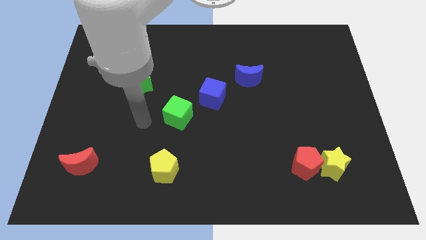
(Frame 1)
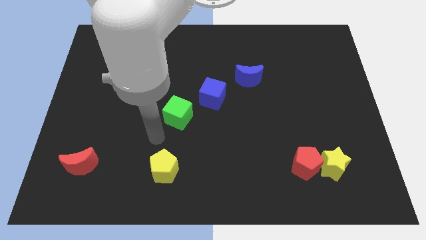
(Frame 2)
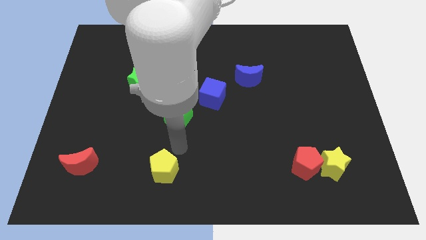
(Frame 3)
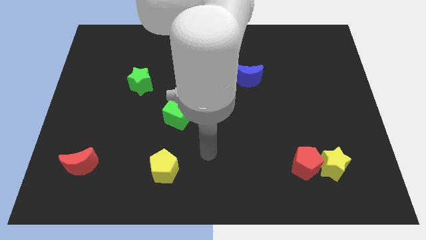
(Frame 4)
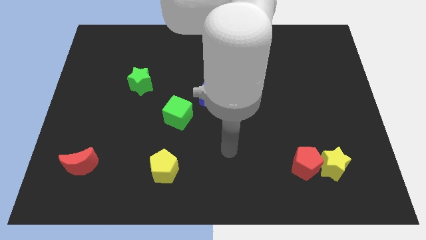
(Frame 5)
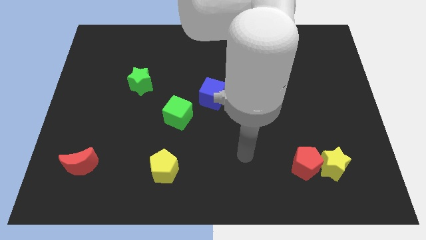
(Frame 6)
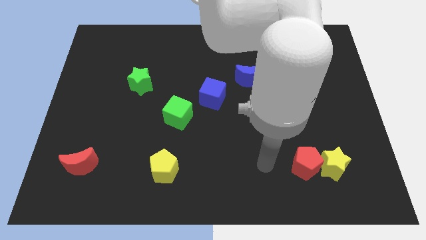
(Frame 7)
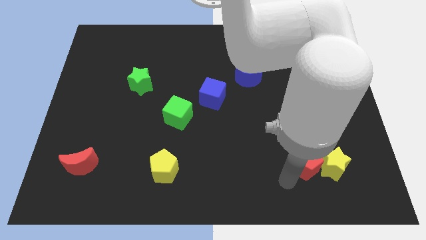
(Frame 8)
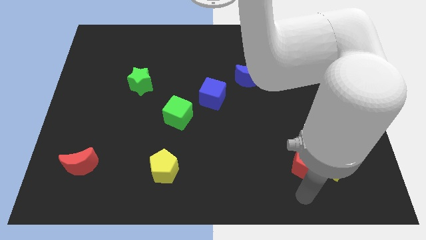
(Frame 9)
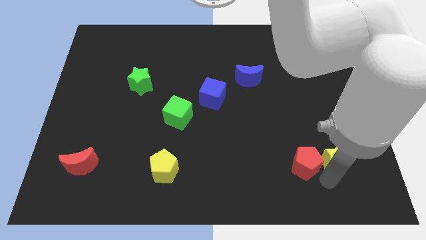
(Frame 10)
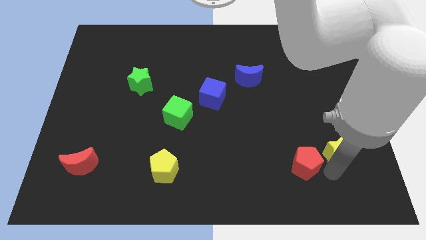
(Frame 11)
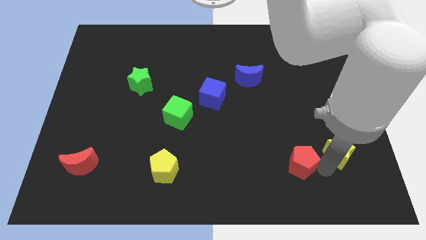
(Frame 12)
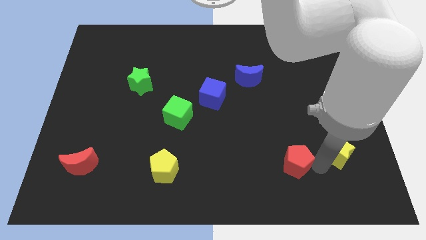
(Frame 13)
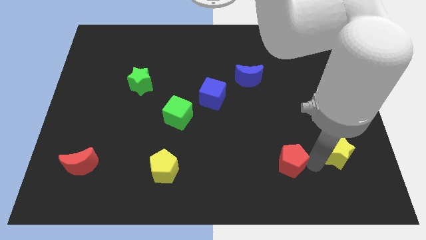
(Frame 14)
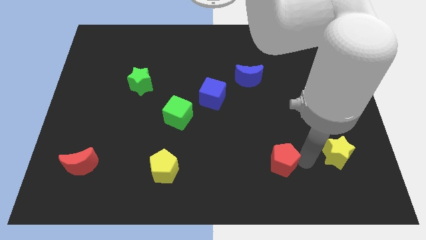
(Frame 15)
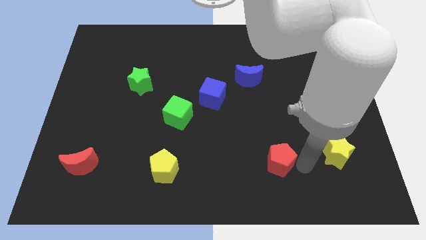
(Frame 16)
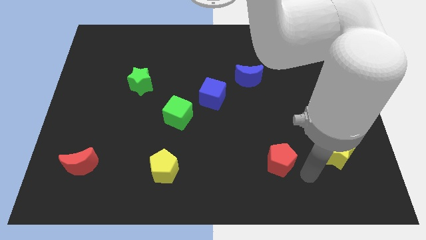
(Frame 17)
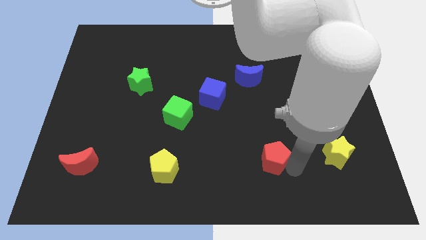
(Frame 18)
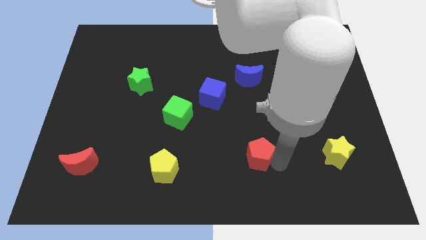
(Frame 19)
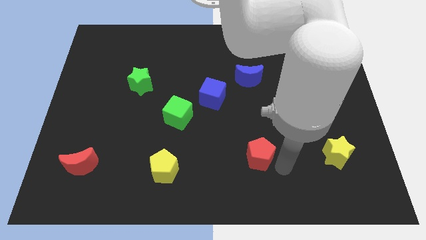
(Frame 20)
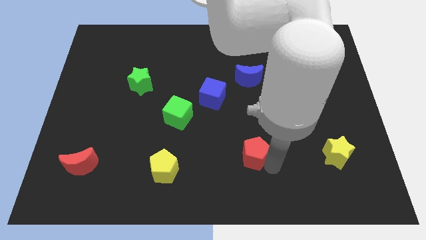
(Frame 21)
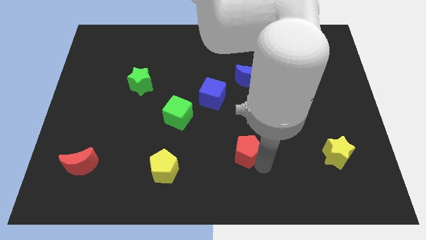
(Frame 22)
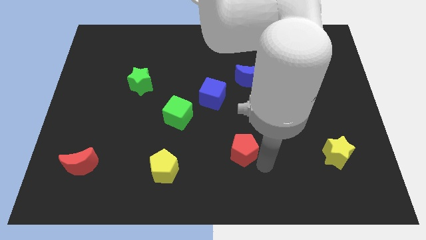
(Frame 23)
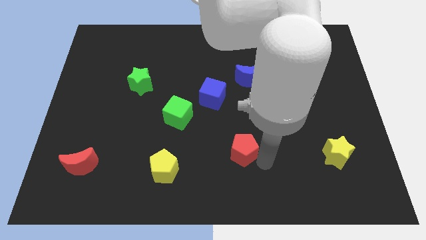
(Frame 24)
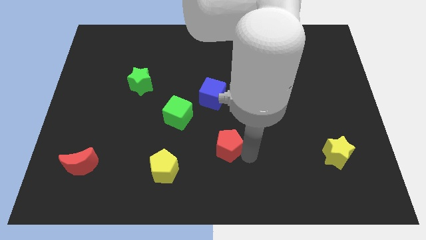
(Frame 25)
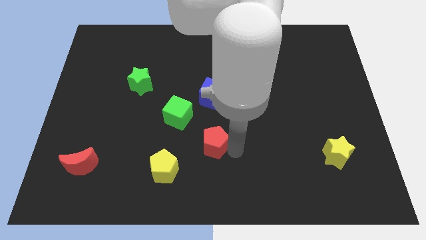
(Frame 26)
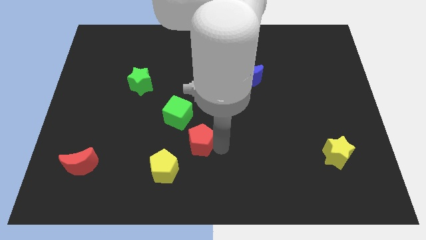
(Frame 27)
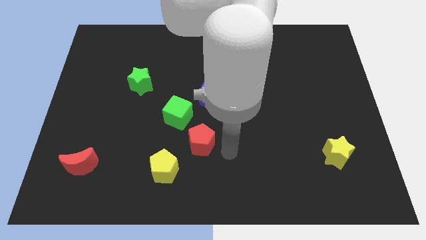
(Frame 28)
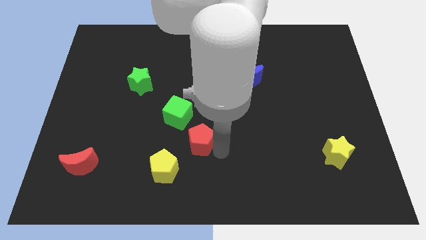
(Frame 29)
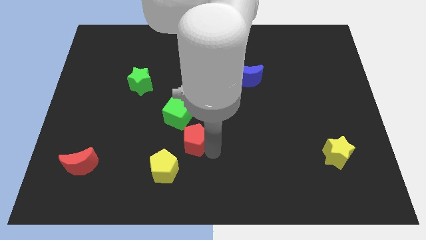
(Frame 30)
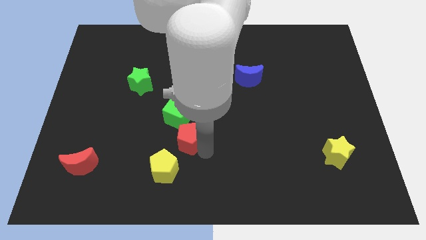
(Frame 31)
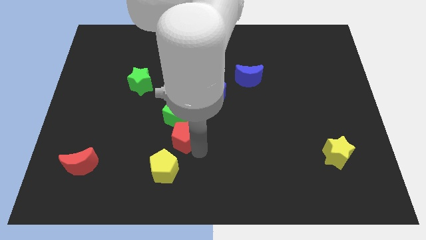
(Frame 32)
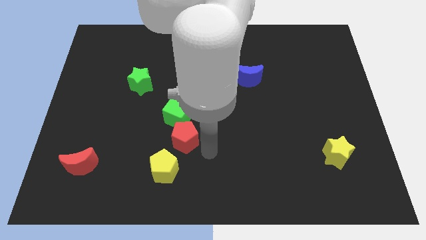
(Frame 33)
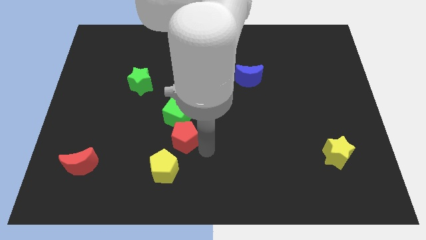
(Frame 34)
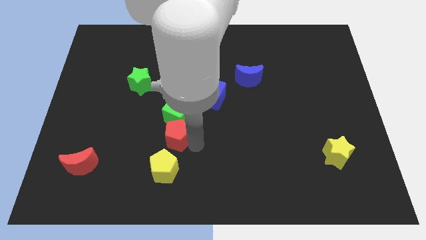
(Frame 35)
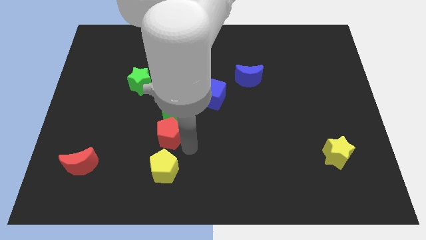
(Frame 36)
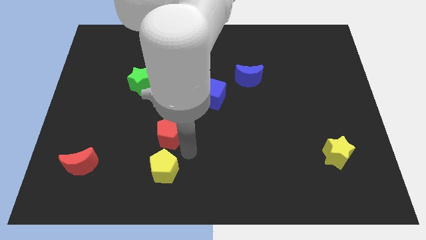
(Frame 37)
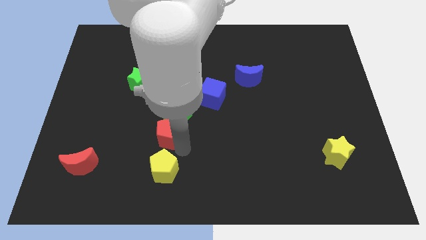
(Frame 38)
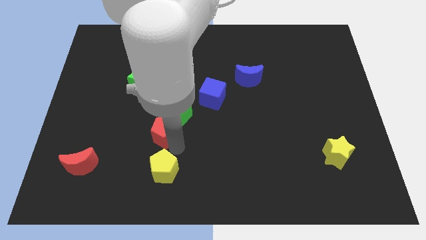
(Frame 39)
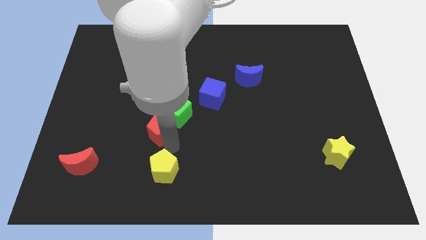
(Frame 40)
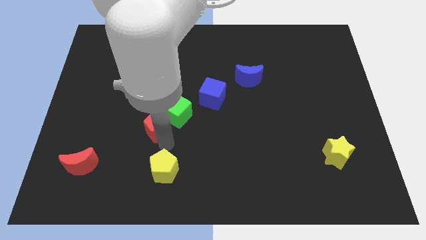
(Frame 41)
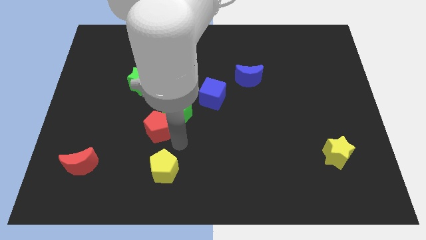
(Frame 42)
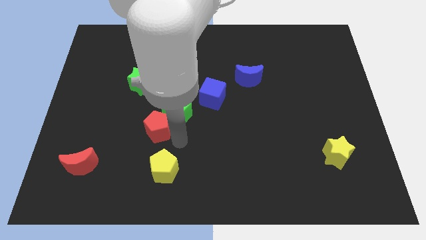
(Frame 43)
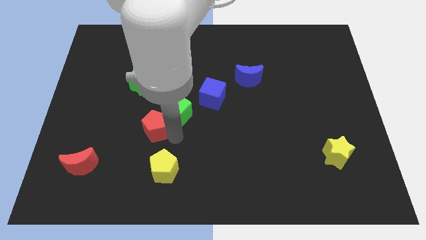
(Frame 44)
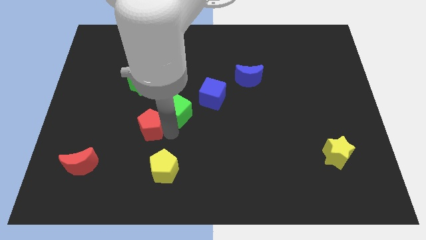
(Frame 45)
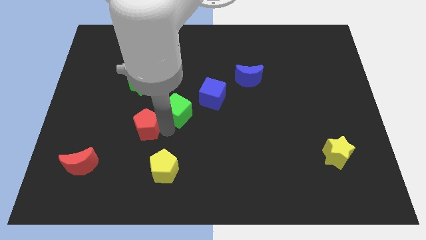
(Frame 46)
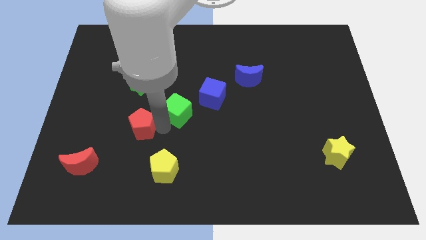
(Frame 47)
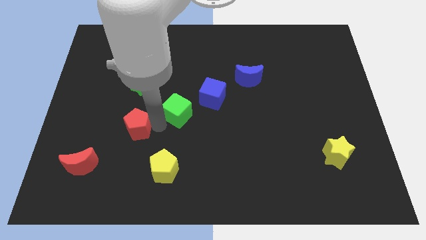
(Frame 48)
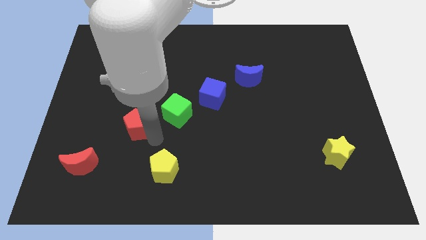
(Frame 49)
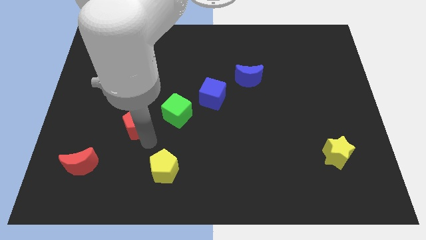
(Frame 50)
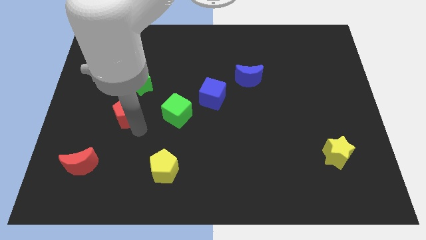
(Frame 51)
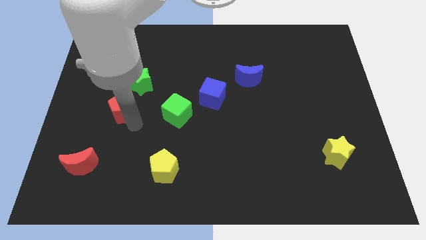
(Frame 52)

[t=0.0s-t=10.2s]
put the red pentagon to the bottom left side of the green star

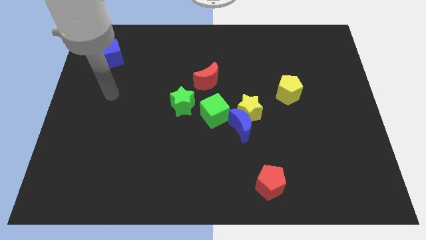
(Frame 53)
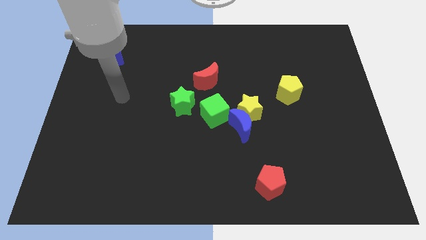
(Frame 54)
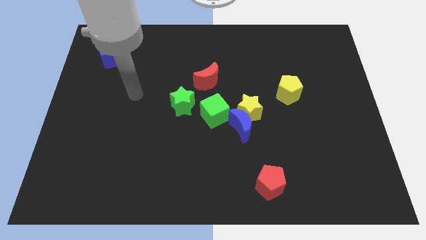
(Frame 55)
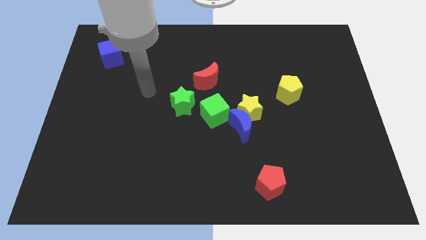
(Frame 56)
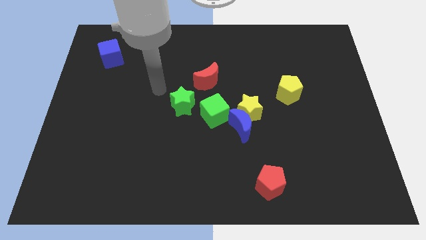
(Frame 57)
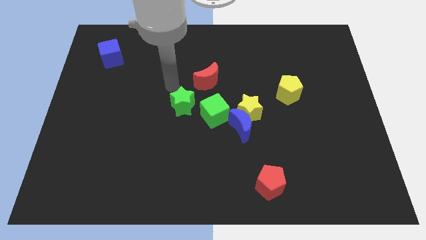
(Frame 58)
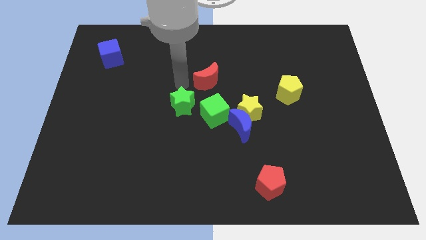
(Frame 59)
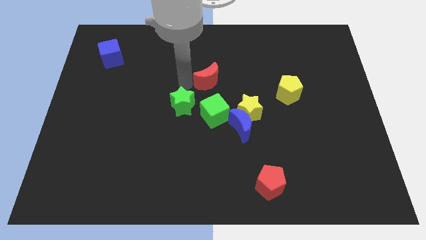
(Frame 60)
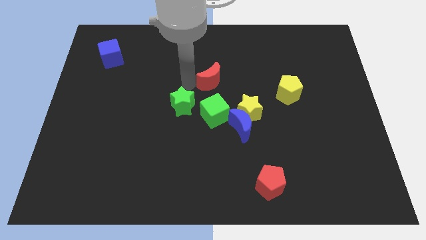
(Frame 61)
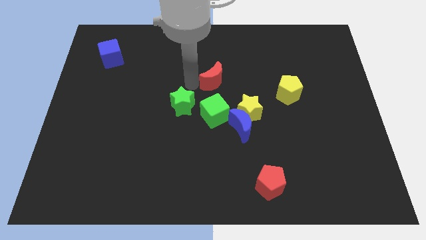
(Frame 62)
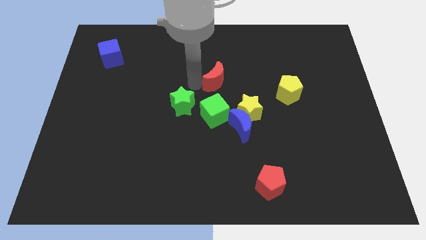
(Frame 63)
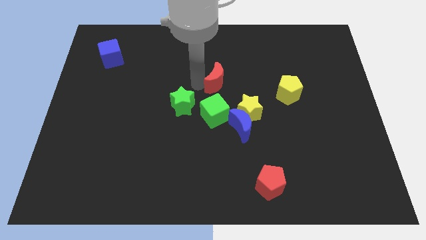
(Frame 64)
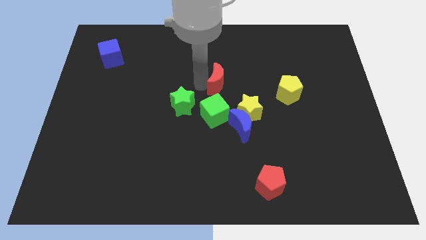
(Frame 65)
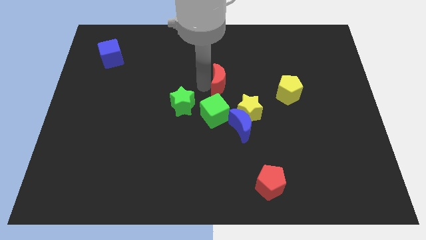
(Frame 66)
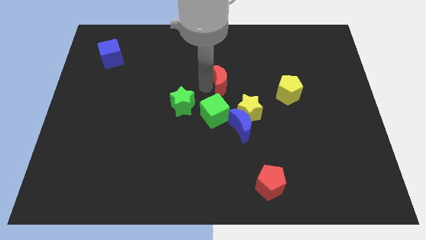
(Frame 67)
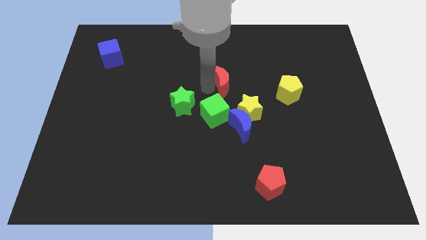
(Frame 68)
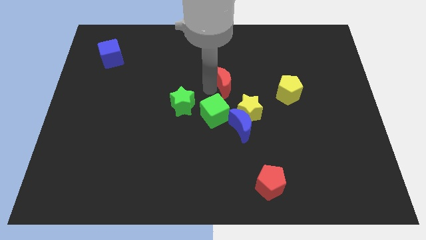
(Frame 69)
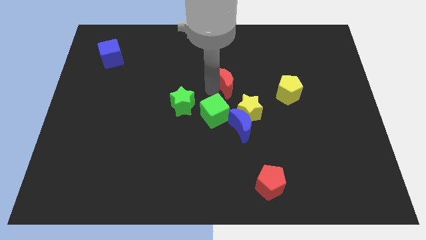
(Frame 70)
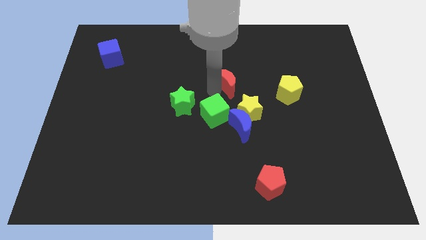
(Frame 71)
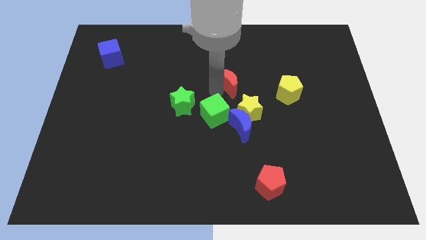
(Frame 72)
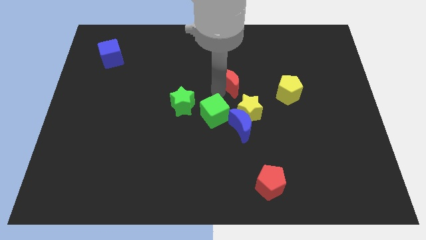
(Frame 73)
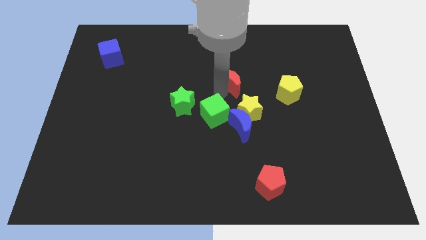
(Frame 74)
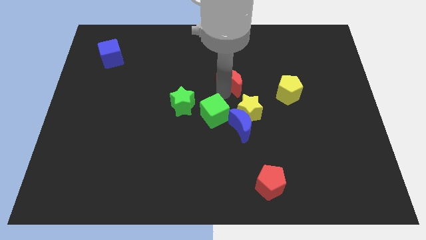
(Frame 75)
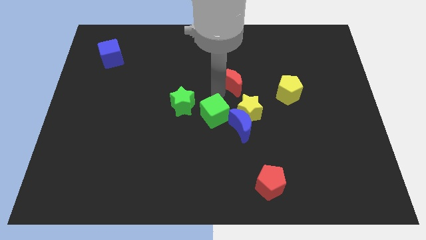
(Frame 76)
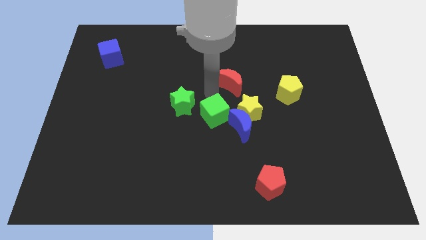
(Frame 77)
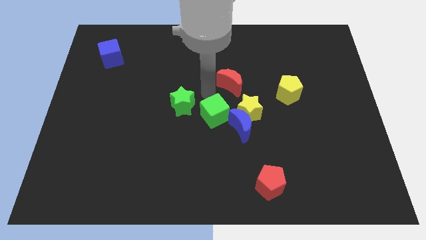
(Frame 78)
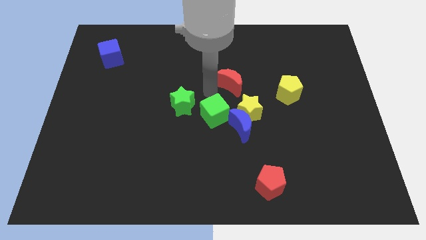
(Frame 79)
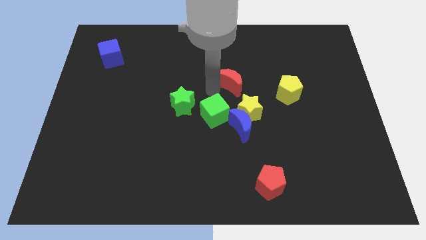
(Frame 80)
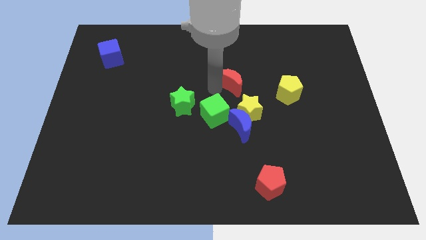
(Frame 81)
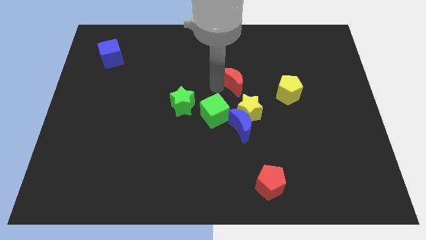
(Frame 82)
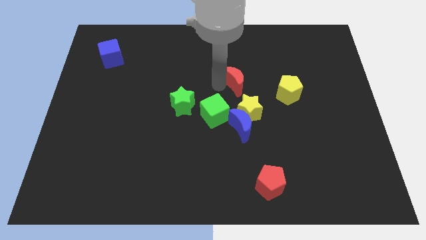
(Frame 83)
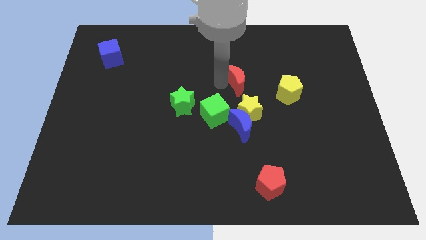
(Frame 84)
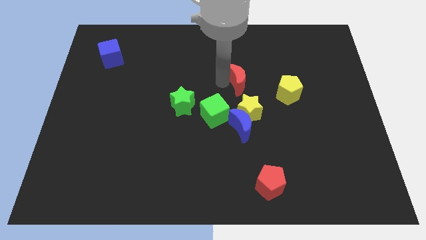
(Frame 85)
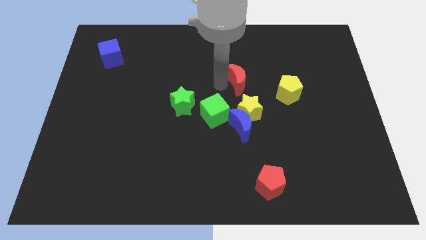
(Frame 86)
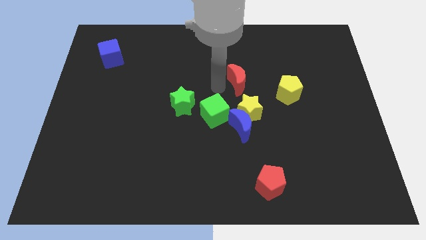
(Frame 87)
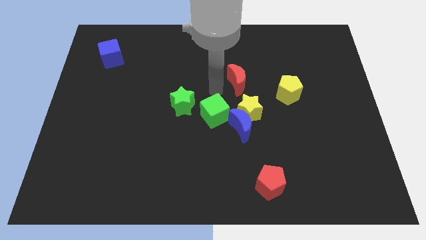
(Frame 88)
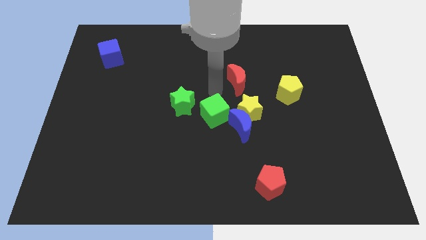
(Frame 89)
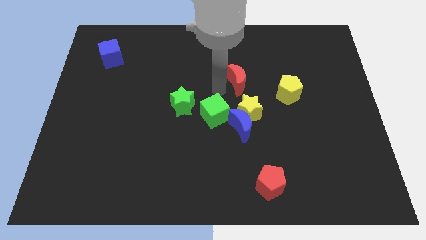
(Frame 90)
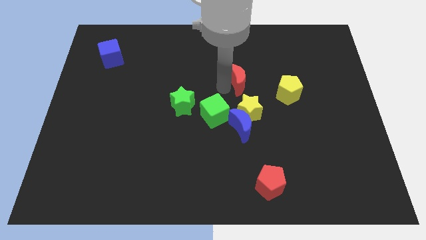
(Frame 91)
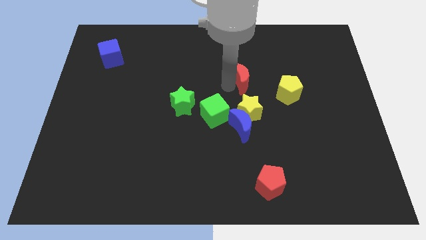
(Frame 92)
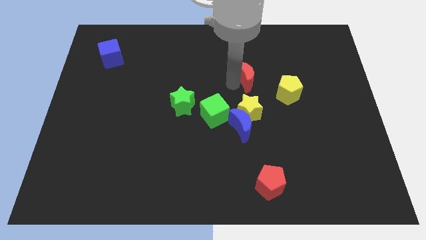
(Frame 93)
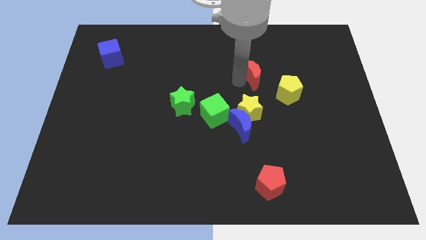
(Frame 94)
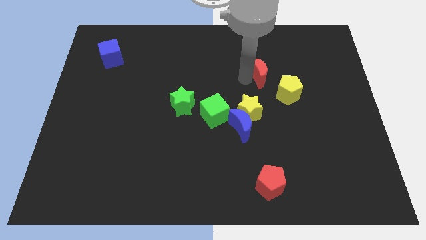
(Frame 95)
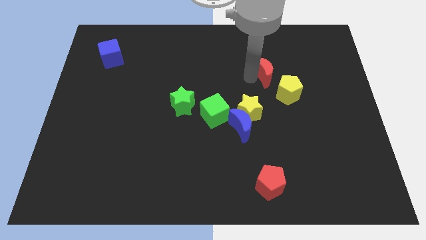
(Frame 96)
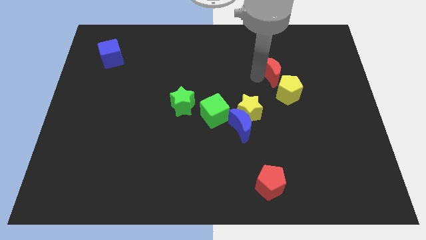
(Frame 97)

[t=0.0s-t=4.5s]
move the red moon to the top of the yellow pentagon
